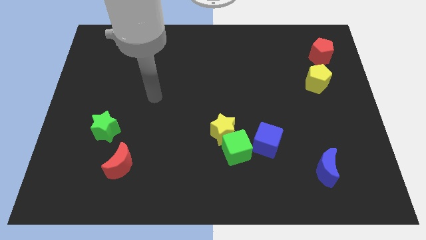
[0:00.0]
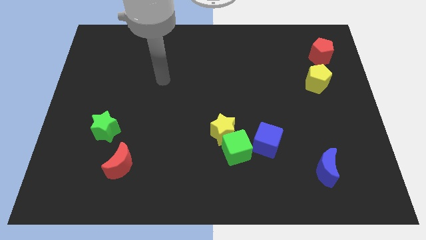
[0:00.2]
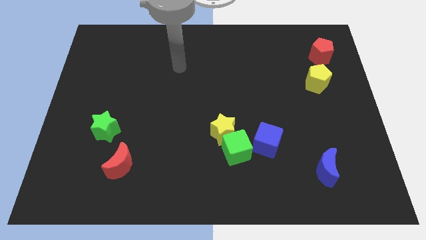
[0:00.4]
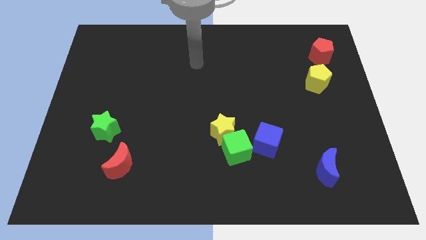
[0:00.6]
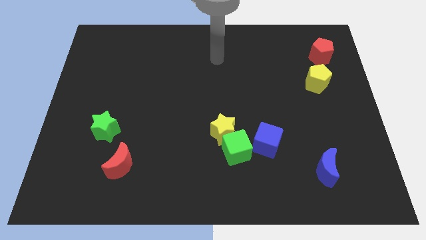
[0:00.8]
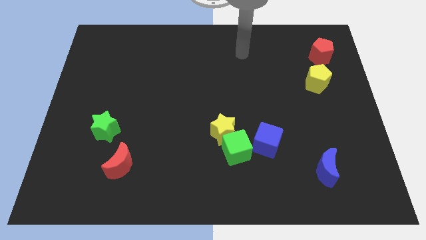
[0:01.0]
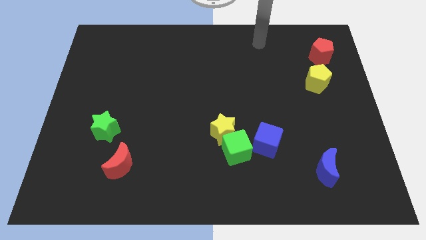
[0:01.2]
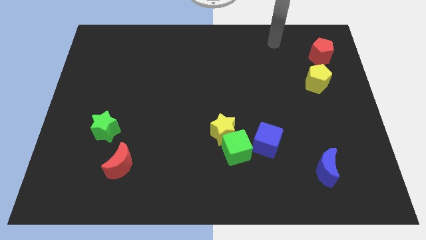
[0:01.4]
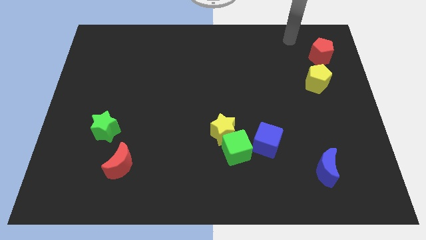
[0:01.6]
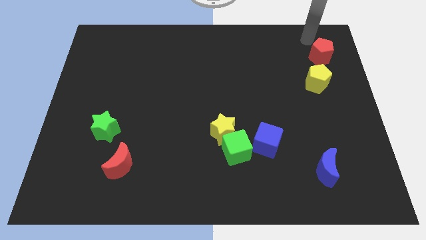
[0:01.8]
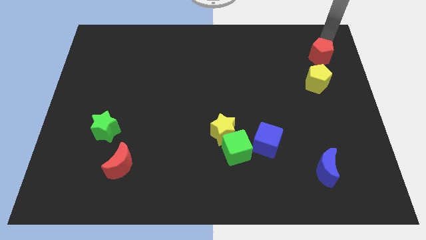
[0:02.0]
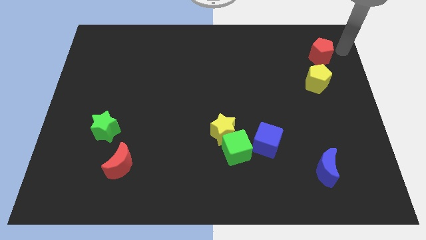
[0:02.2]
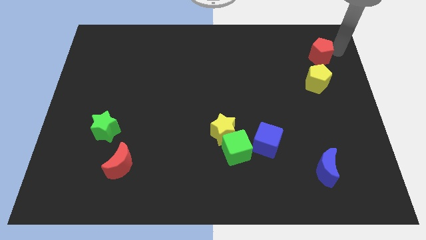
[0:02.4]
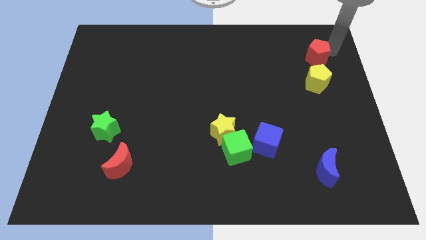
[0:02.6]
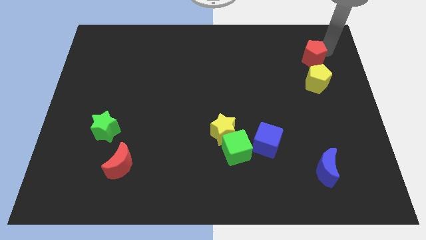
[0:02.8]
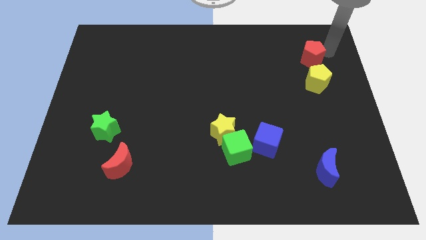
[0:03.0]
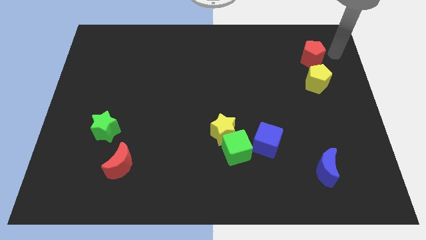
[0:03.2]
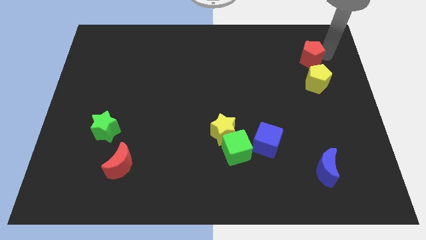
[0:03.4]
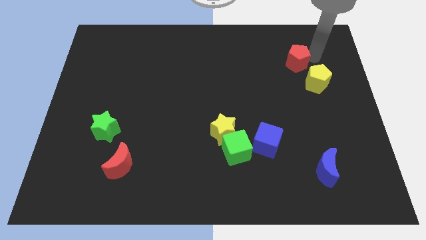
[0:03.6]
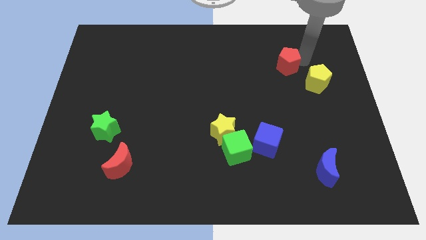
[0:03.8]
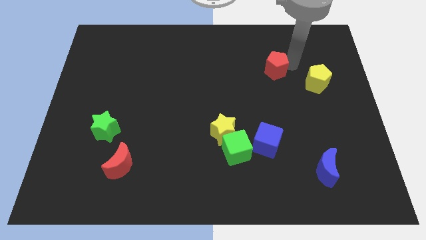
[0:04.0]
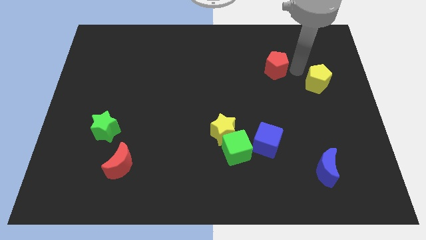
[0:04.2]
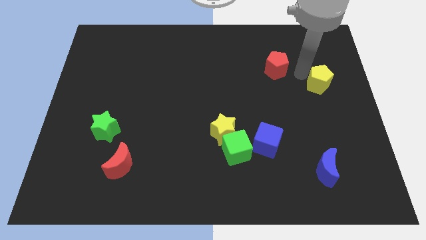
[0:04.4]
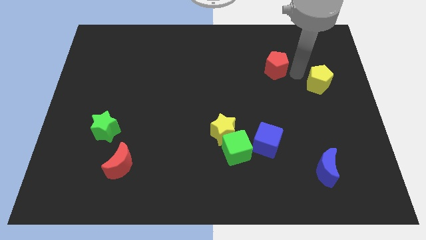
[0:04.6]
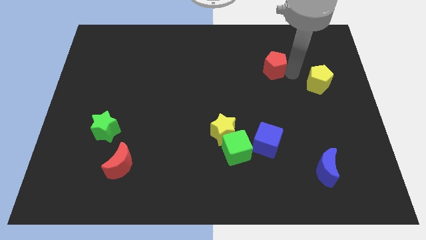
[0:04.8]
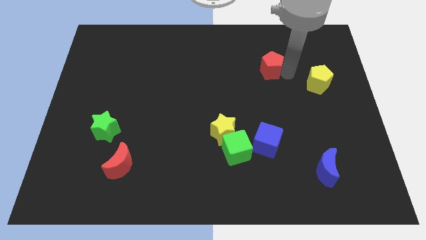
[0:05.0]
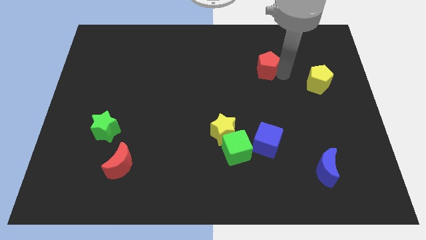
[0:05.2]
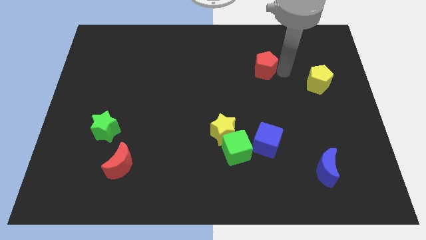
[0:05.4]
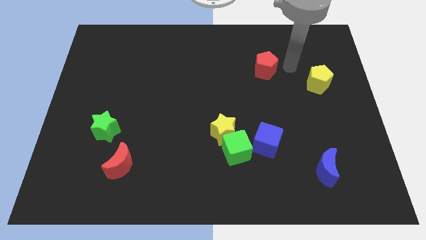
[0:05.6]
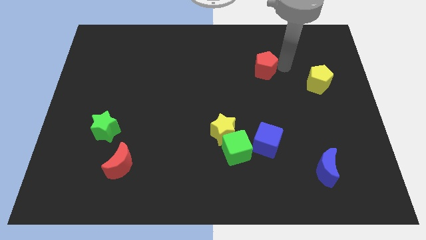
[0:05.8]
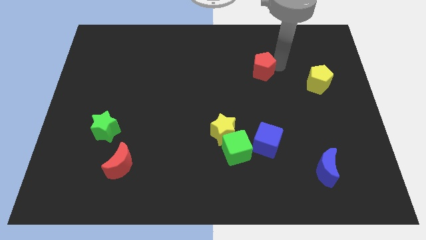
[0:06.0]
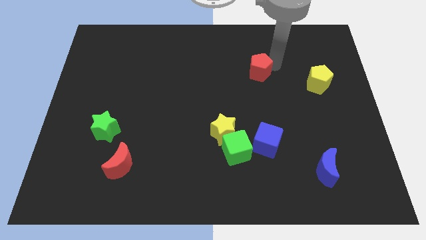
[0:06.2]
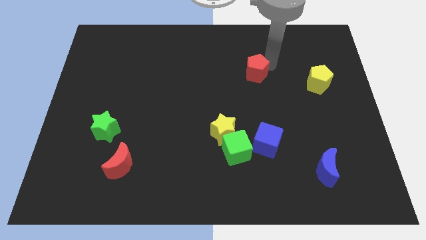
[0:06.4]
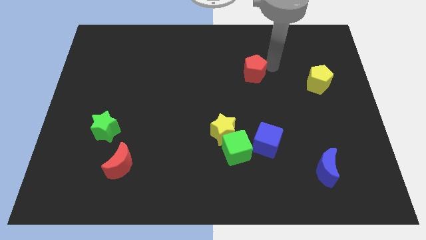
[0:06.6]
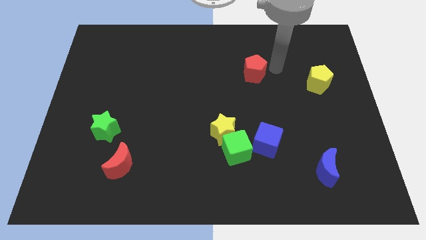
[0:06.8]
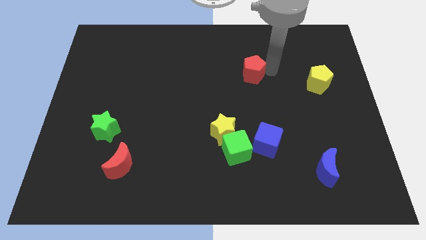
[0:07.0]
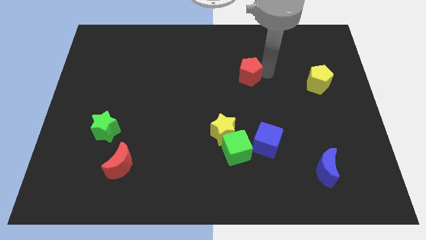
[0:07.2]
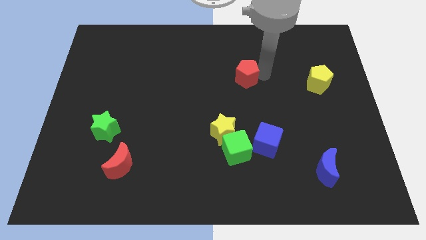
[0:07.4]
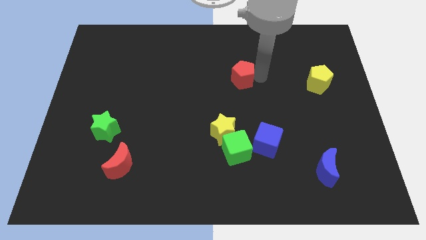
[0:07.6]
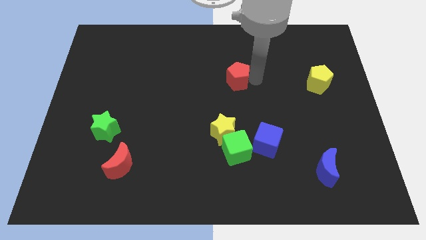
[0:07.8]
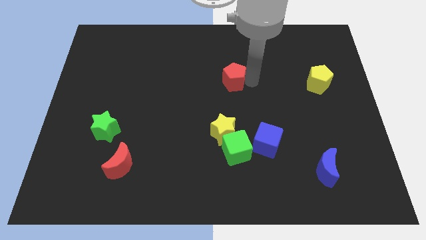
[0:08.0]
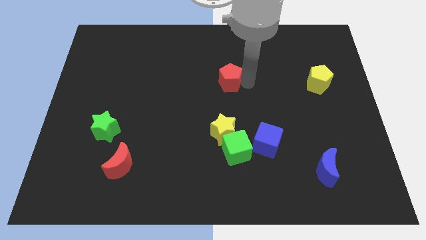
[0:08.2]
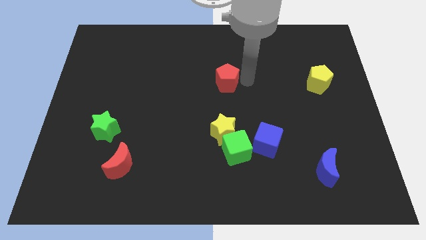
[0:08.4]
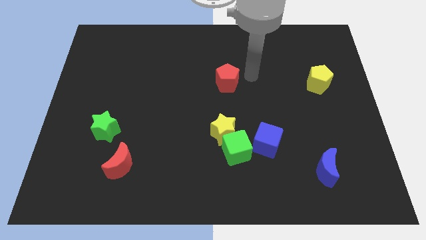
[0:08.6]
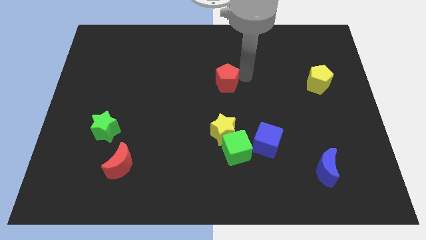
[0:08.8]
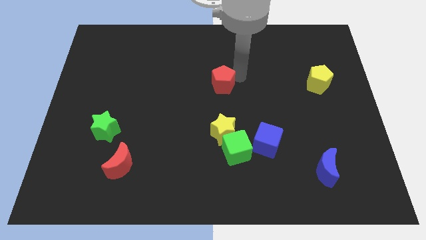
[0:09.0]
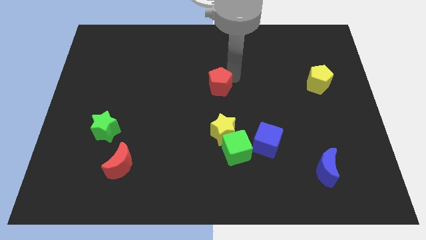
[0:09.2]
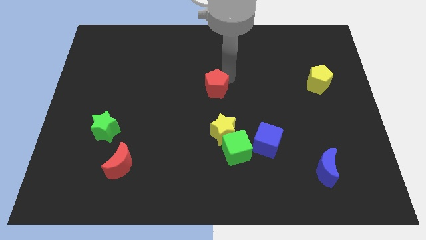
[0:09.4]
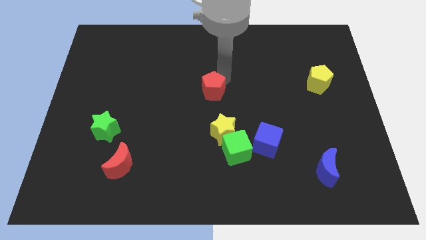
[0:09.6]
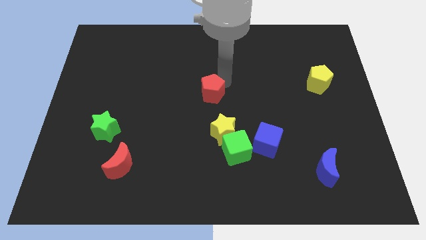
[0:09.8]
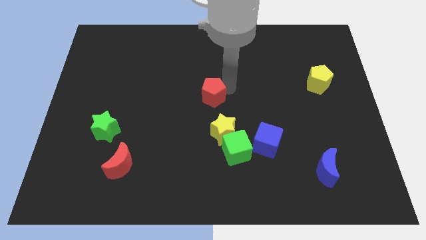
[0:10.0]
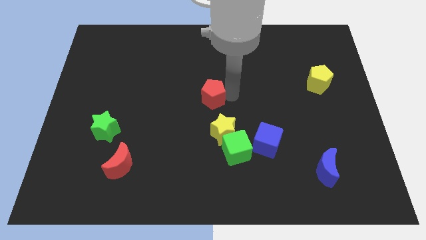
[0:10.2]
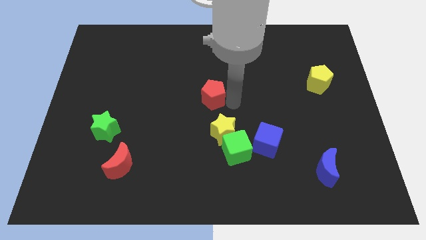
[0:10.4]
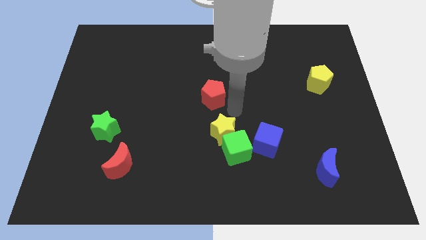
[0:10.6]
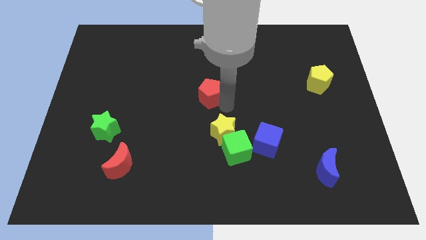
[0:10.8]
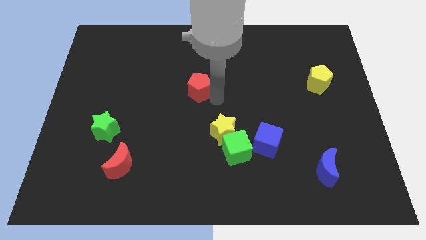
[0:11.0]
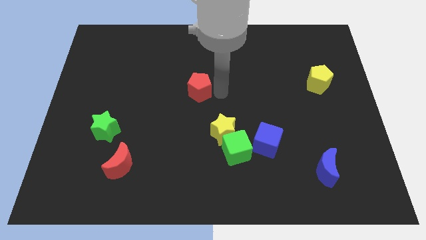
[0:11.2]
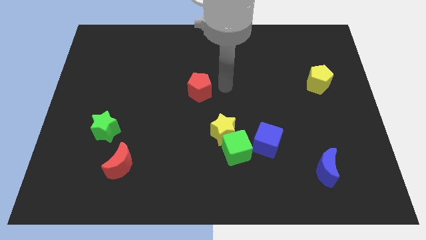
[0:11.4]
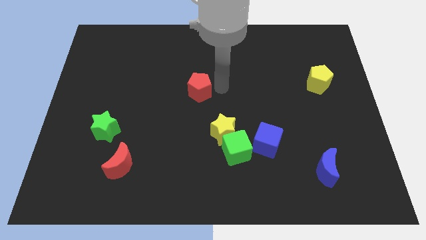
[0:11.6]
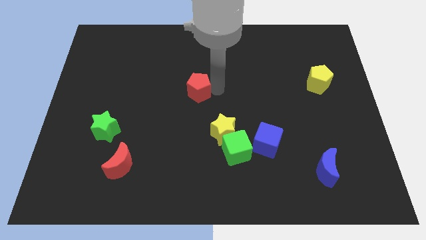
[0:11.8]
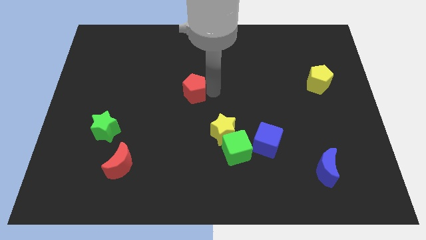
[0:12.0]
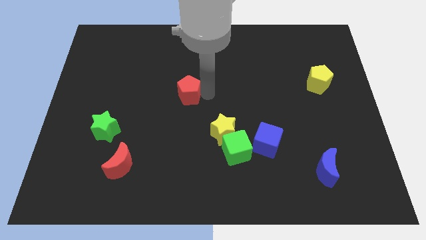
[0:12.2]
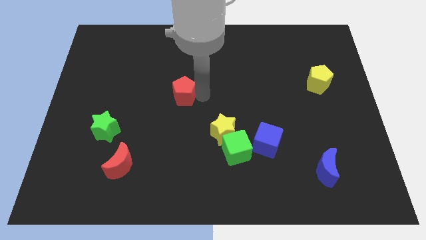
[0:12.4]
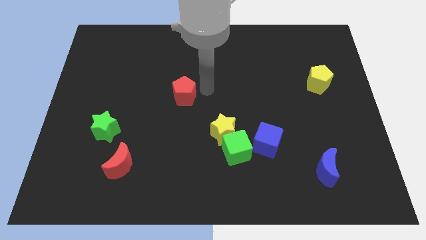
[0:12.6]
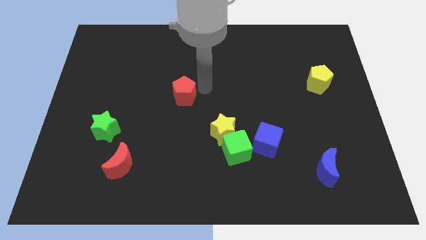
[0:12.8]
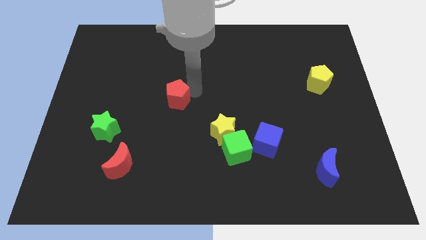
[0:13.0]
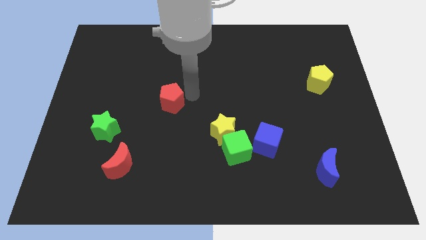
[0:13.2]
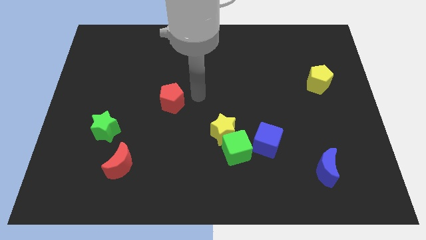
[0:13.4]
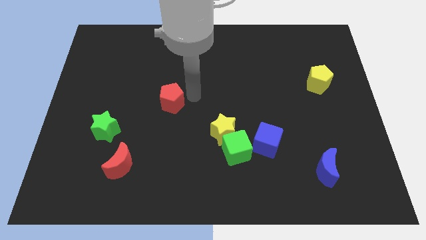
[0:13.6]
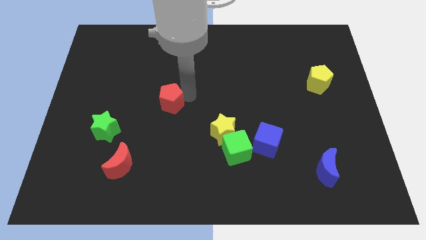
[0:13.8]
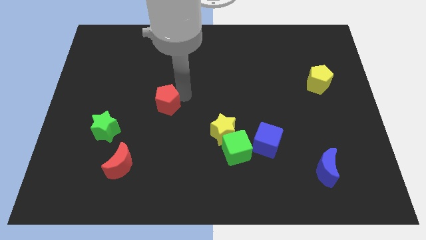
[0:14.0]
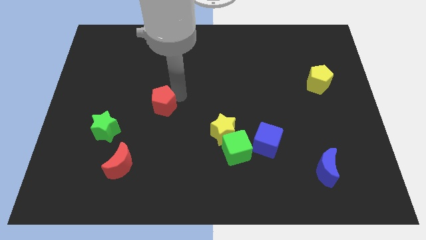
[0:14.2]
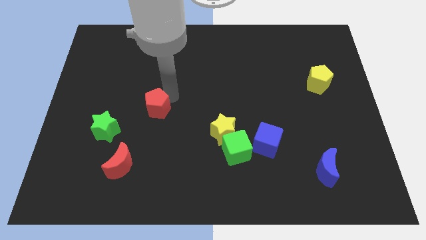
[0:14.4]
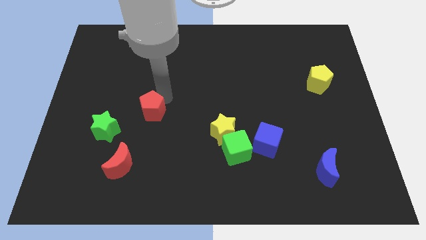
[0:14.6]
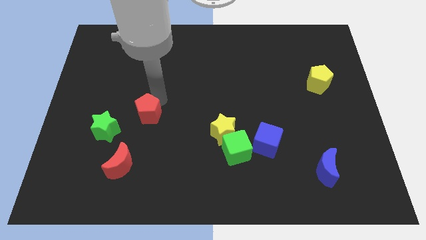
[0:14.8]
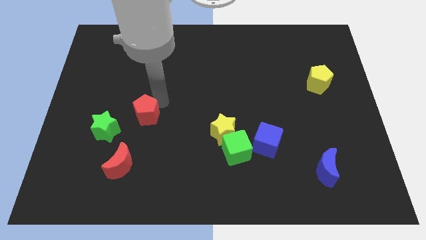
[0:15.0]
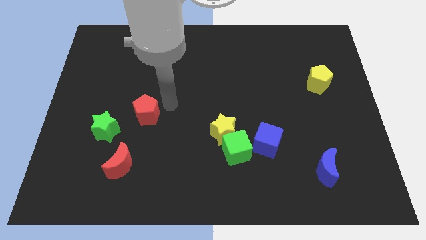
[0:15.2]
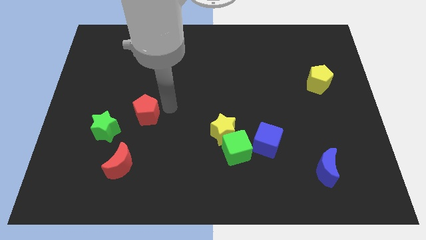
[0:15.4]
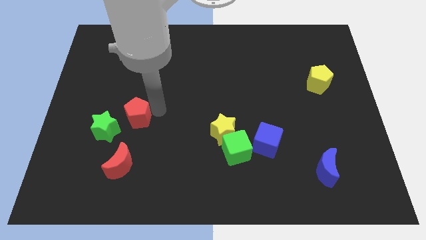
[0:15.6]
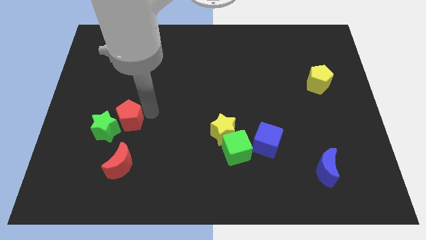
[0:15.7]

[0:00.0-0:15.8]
slide the red pentagon to the green star
